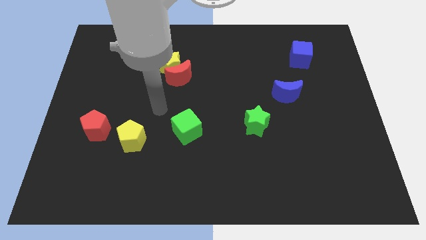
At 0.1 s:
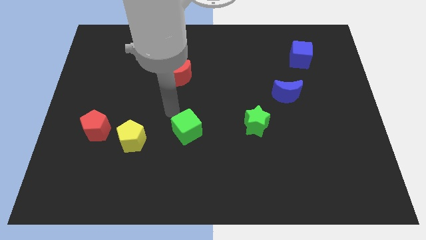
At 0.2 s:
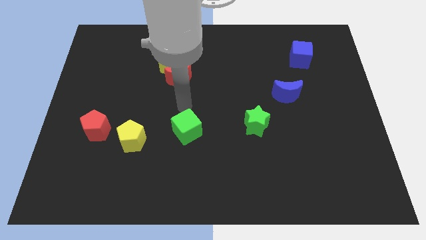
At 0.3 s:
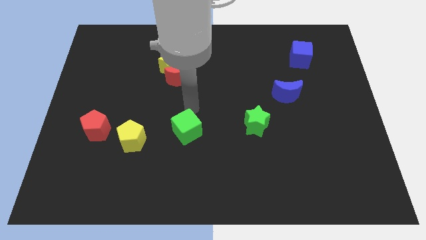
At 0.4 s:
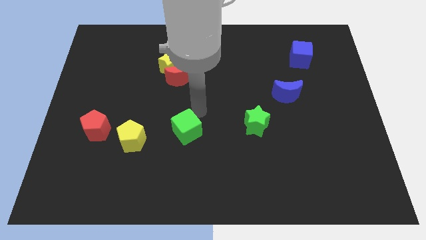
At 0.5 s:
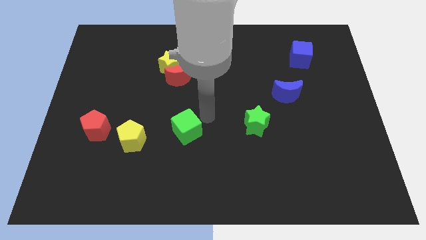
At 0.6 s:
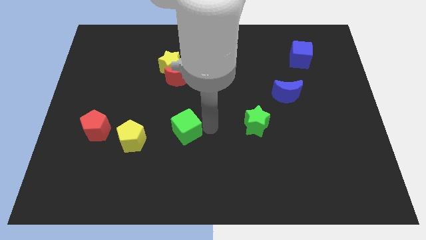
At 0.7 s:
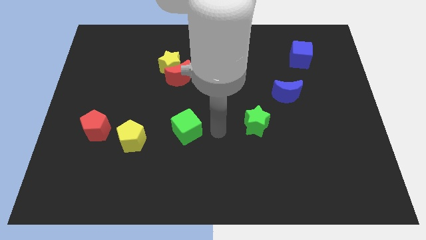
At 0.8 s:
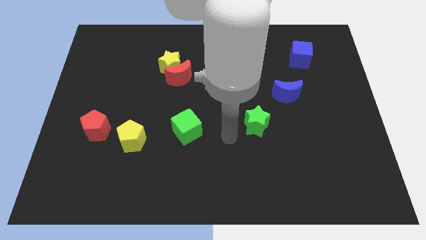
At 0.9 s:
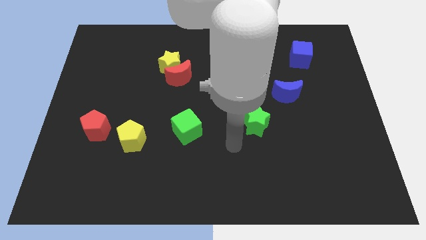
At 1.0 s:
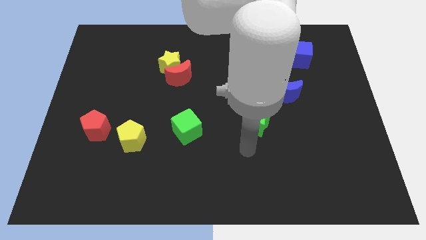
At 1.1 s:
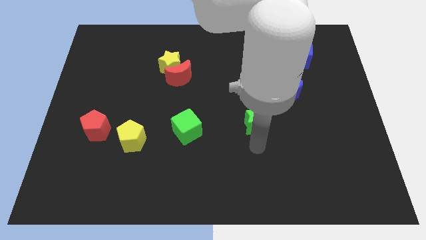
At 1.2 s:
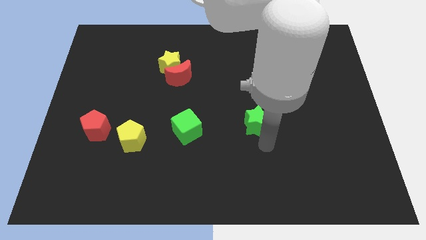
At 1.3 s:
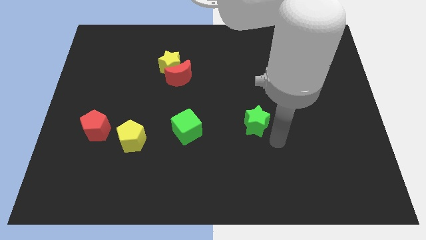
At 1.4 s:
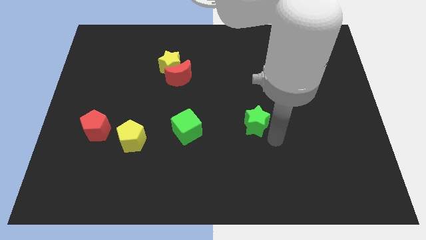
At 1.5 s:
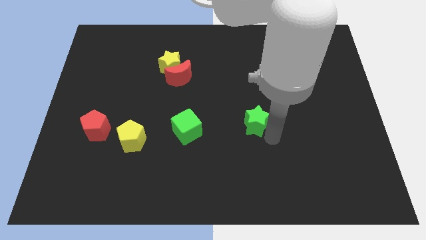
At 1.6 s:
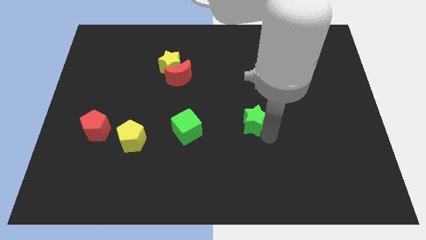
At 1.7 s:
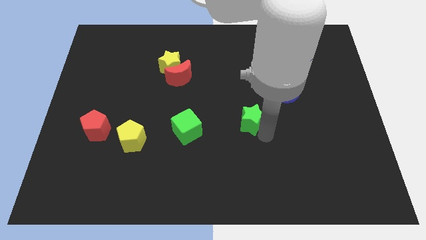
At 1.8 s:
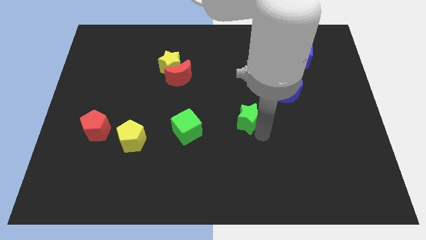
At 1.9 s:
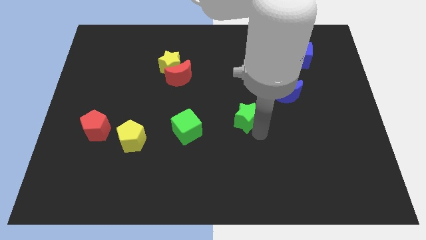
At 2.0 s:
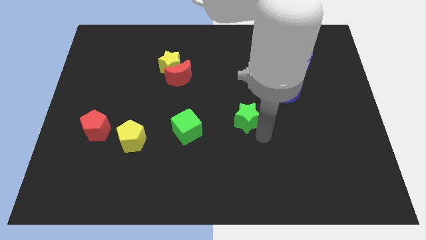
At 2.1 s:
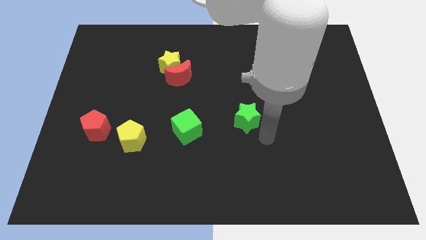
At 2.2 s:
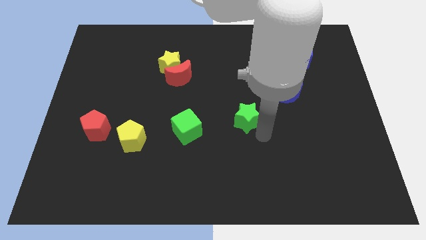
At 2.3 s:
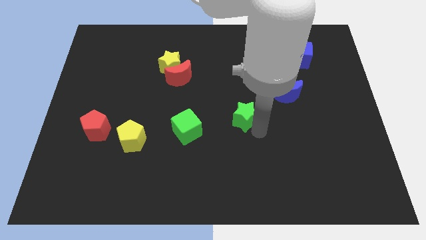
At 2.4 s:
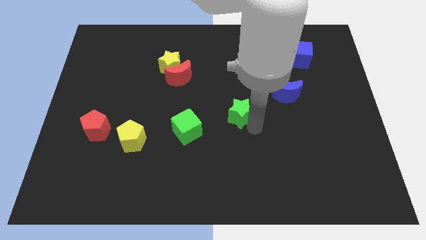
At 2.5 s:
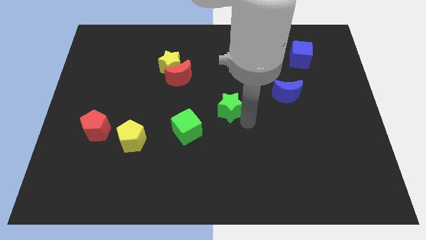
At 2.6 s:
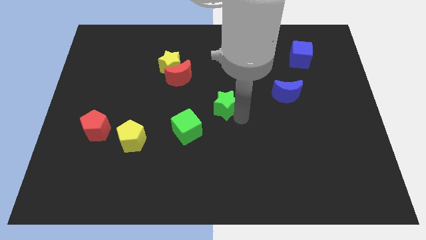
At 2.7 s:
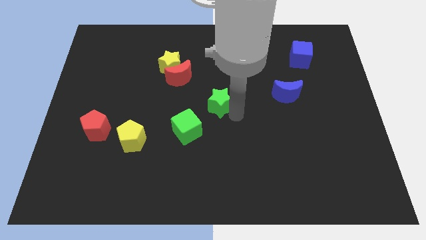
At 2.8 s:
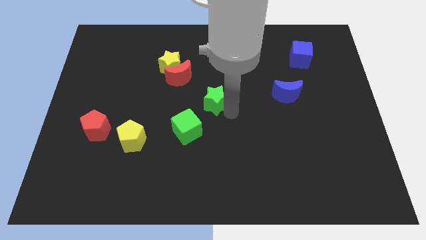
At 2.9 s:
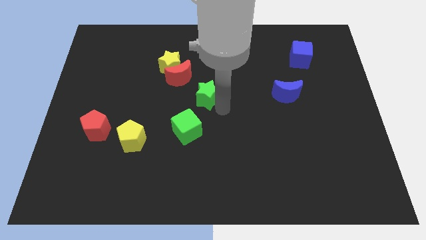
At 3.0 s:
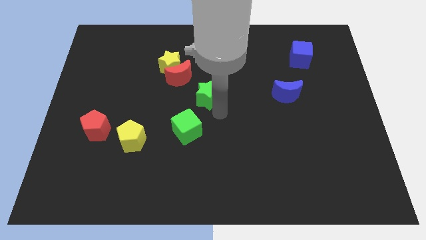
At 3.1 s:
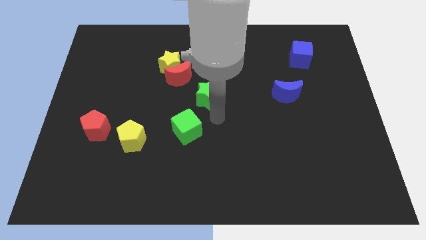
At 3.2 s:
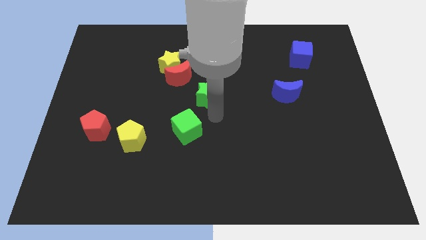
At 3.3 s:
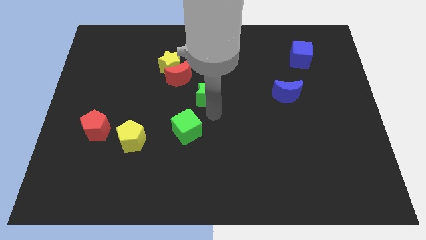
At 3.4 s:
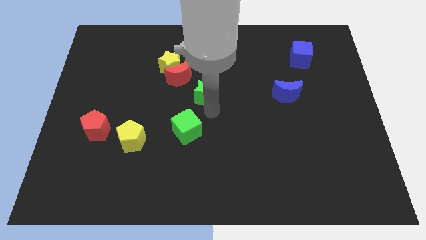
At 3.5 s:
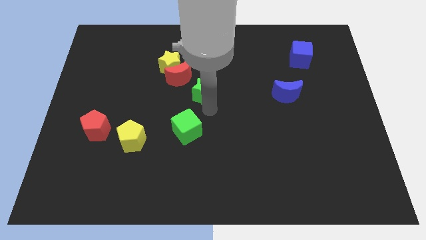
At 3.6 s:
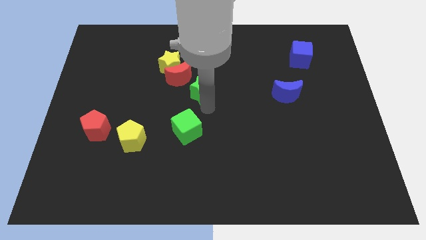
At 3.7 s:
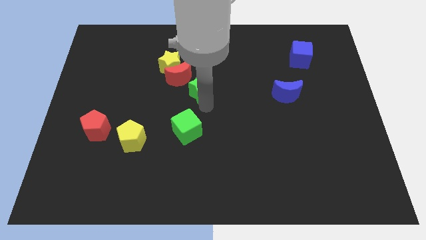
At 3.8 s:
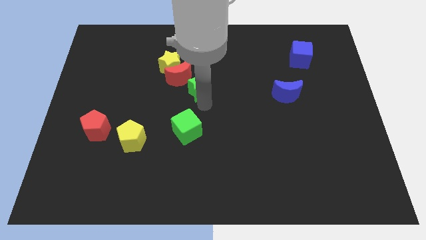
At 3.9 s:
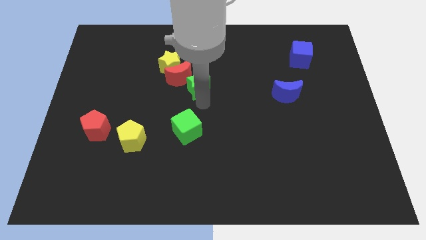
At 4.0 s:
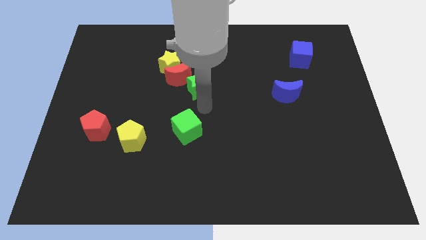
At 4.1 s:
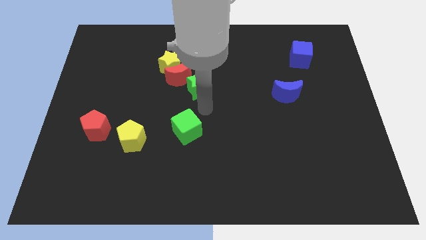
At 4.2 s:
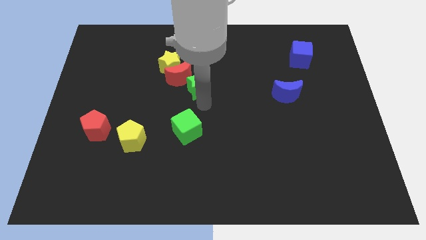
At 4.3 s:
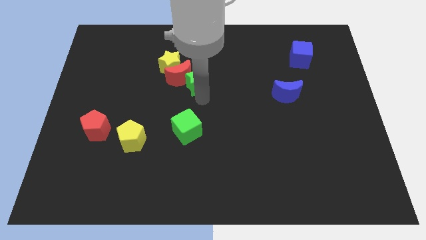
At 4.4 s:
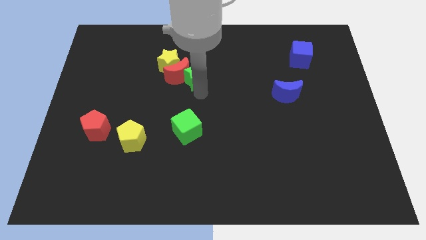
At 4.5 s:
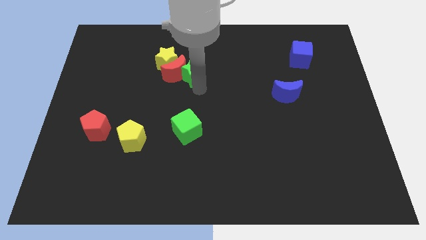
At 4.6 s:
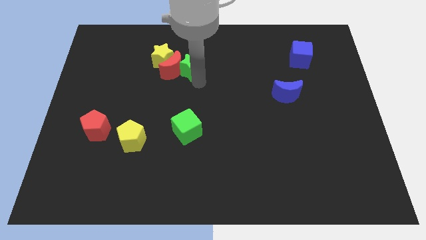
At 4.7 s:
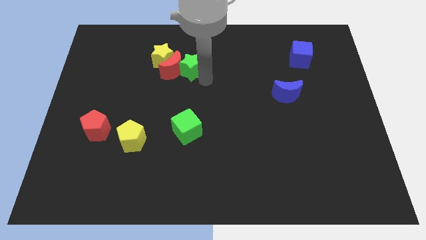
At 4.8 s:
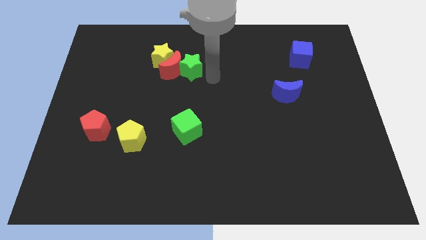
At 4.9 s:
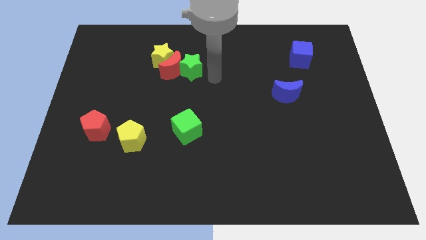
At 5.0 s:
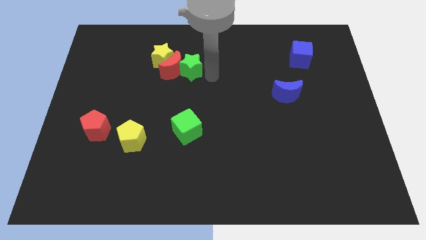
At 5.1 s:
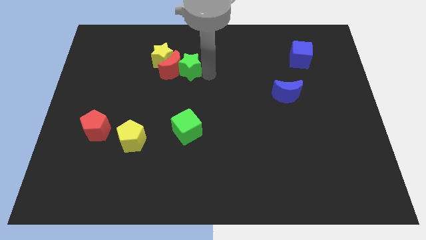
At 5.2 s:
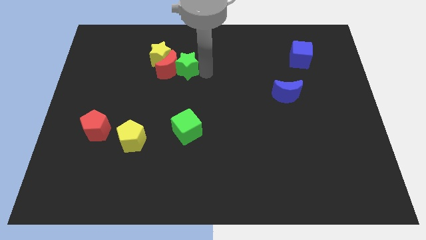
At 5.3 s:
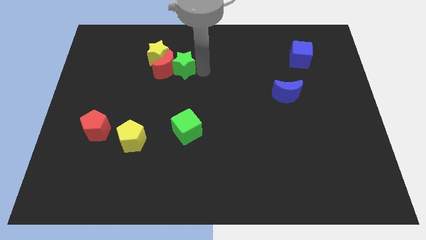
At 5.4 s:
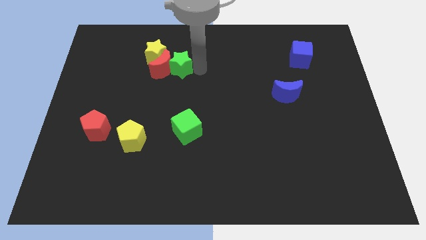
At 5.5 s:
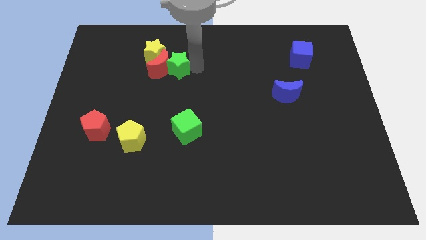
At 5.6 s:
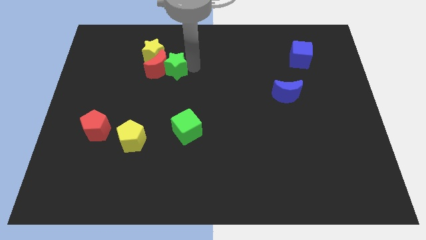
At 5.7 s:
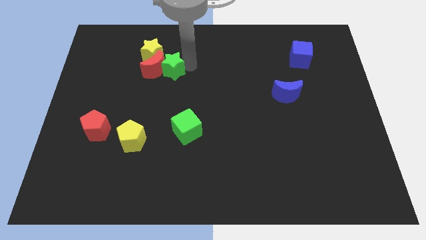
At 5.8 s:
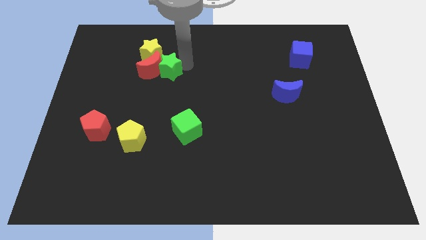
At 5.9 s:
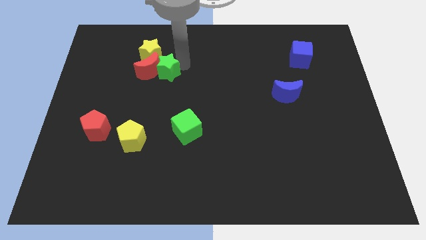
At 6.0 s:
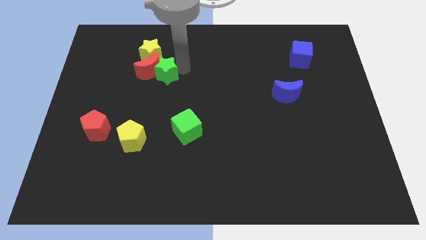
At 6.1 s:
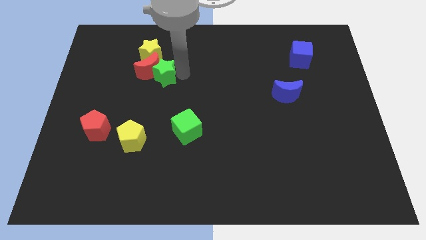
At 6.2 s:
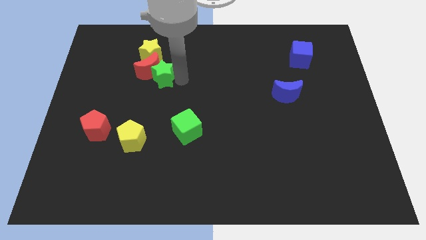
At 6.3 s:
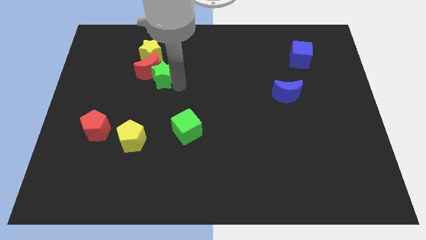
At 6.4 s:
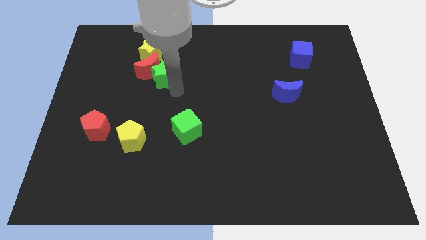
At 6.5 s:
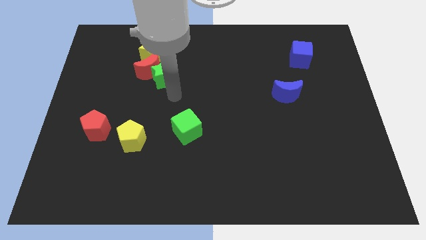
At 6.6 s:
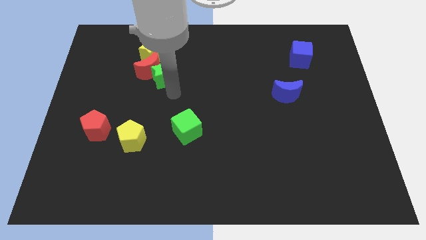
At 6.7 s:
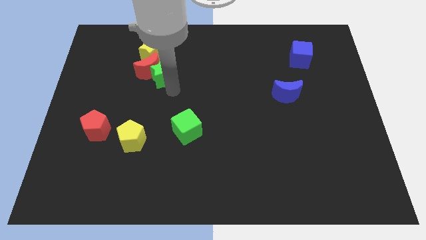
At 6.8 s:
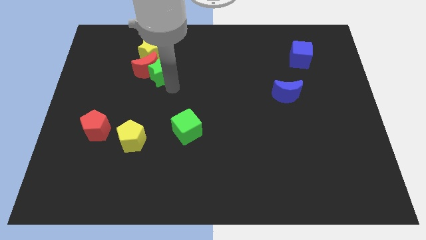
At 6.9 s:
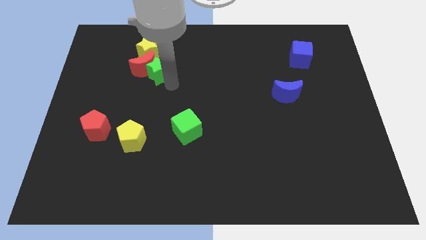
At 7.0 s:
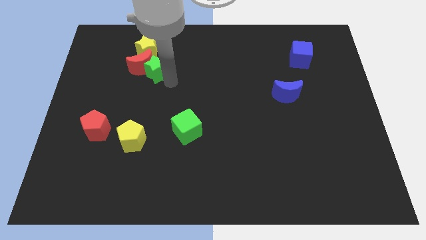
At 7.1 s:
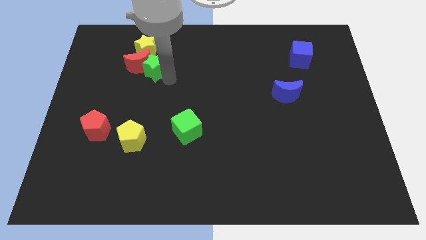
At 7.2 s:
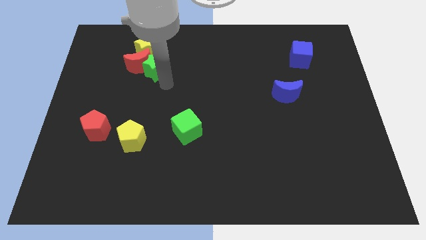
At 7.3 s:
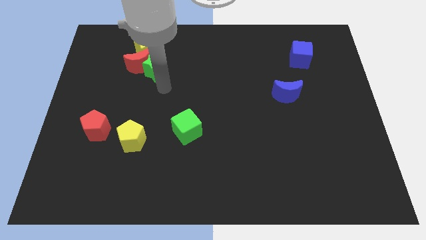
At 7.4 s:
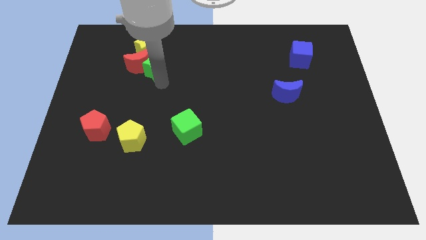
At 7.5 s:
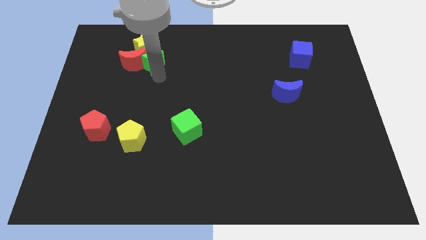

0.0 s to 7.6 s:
slide the green star close to the yellow star
